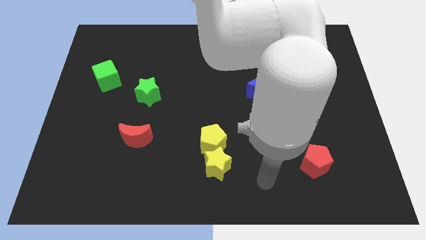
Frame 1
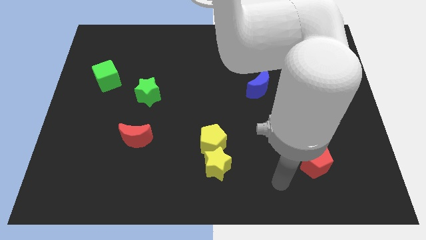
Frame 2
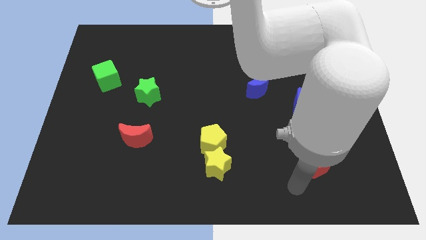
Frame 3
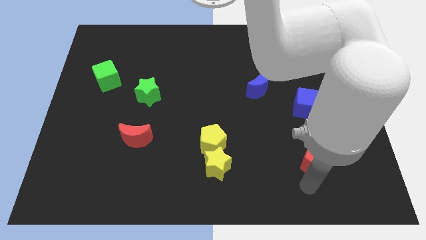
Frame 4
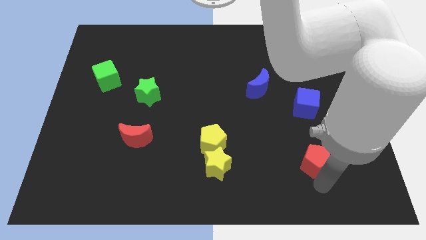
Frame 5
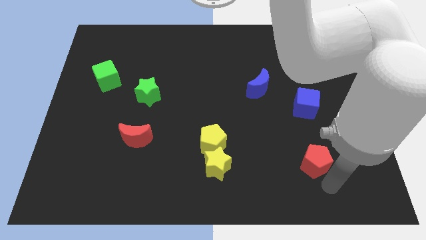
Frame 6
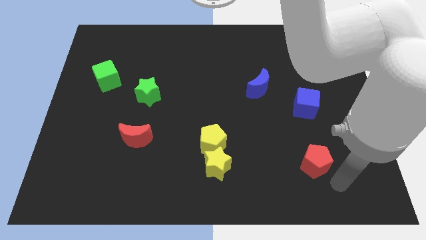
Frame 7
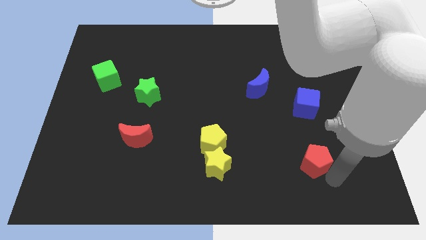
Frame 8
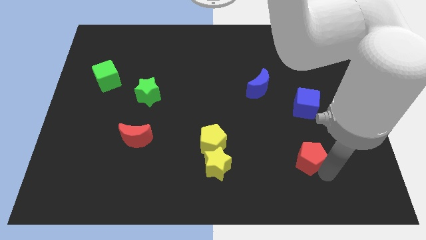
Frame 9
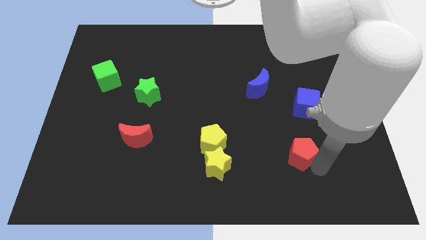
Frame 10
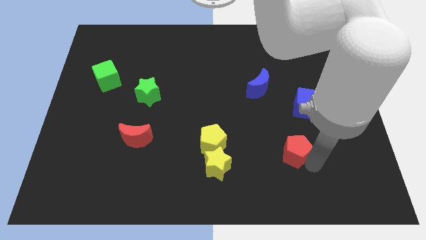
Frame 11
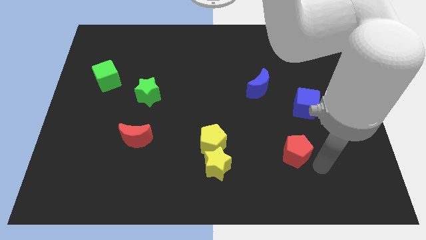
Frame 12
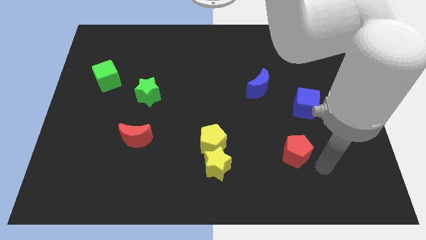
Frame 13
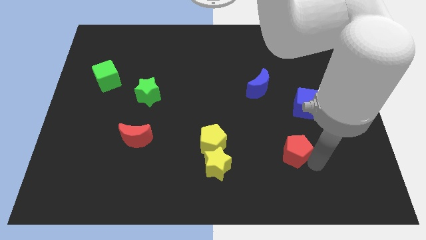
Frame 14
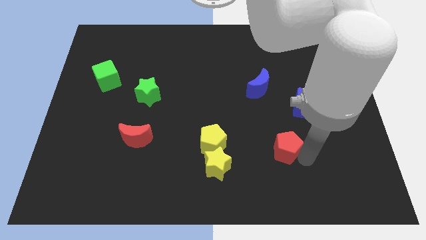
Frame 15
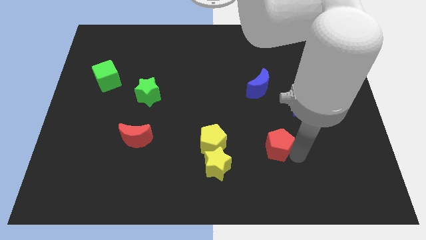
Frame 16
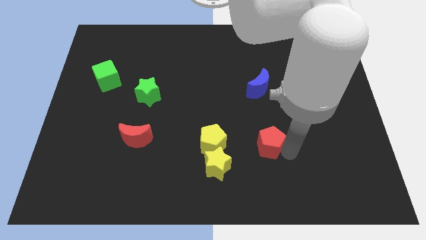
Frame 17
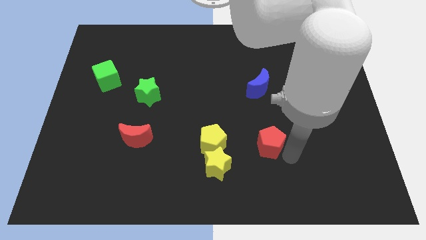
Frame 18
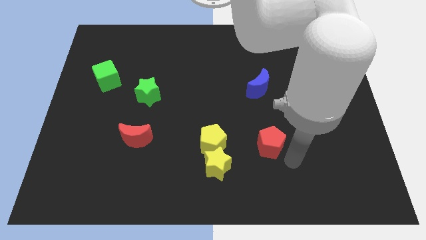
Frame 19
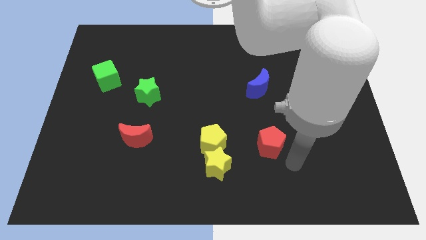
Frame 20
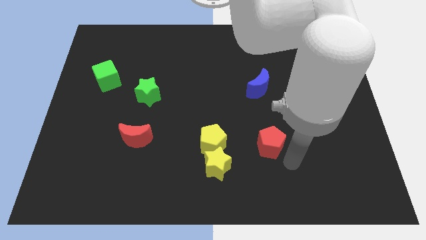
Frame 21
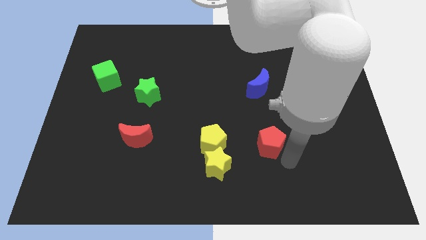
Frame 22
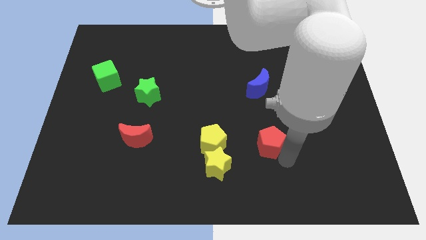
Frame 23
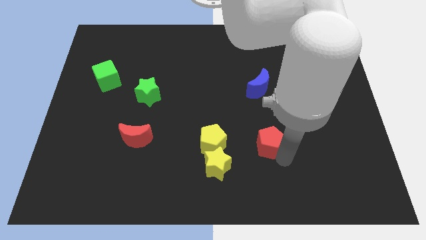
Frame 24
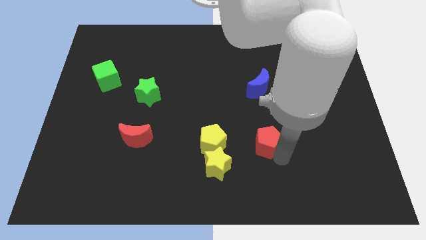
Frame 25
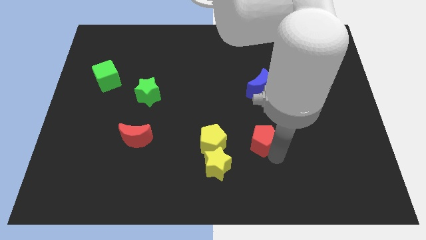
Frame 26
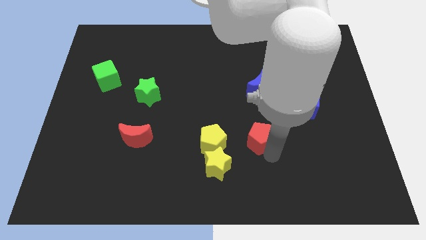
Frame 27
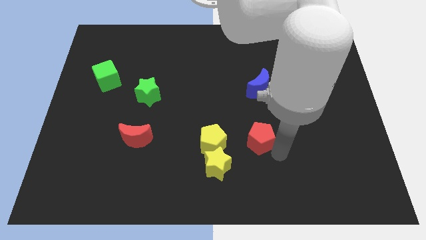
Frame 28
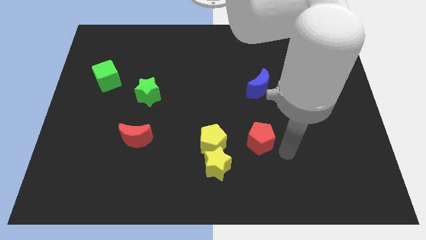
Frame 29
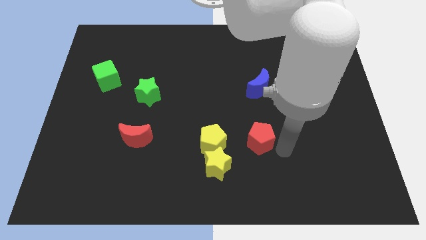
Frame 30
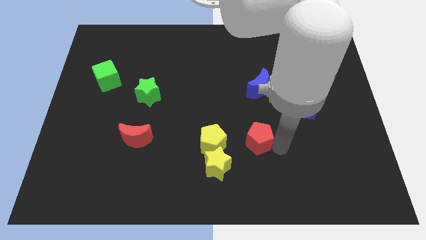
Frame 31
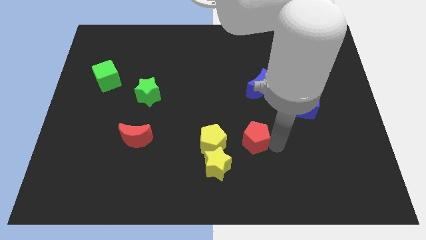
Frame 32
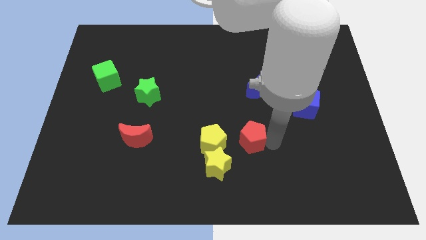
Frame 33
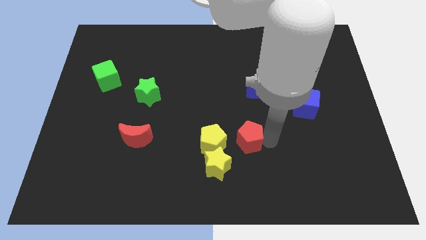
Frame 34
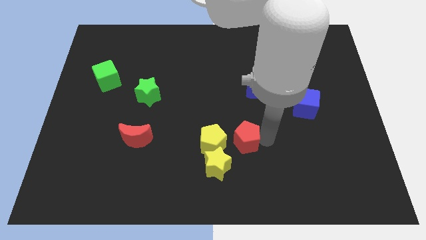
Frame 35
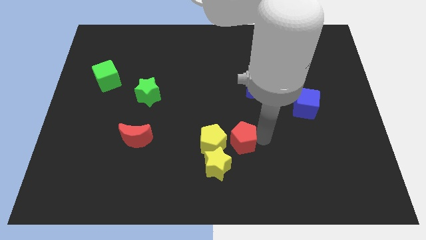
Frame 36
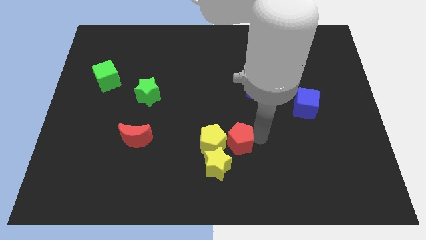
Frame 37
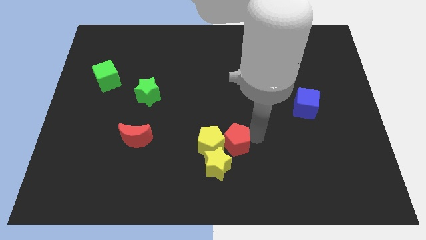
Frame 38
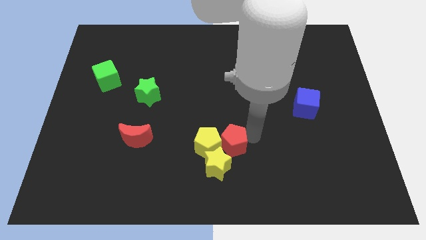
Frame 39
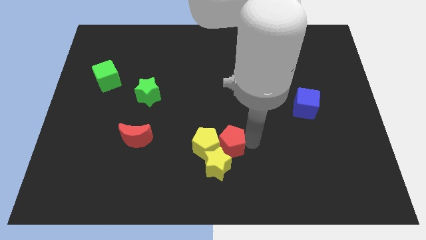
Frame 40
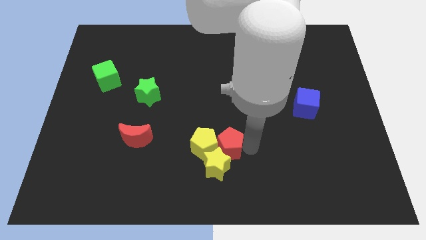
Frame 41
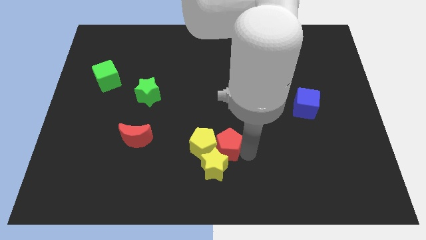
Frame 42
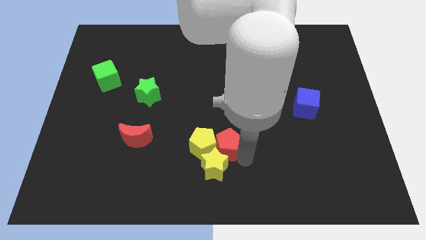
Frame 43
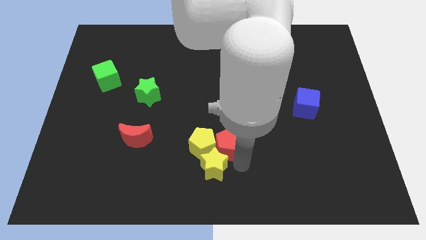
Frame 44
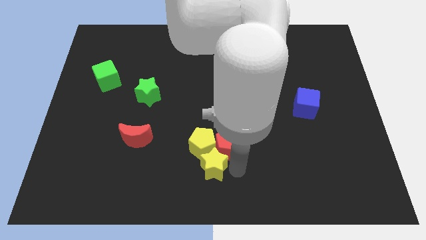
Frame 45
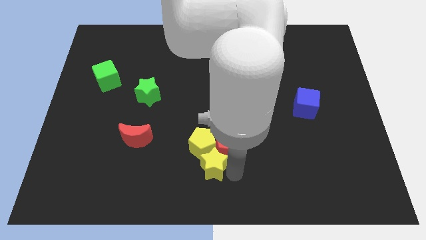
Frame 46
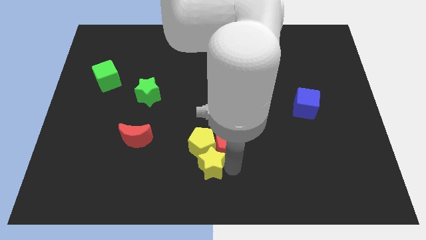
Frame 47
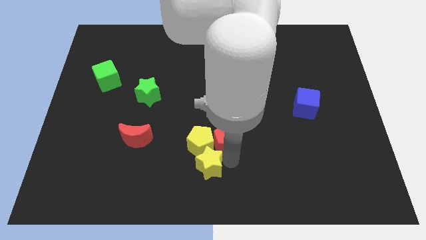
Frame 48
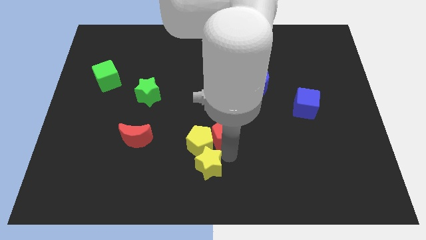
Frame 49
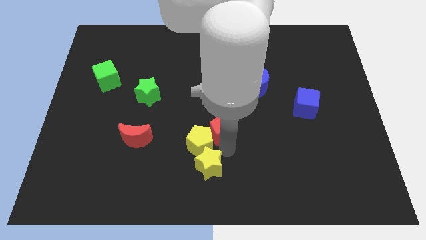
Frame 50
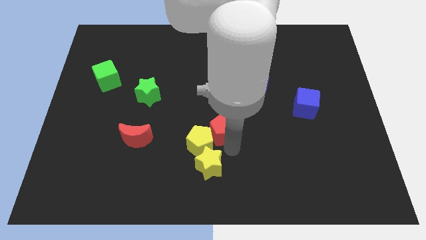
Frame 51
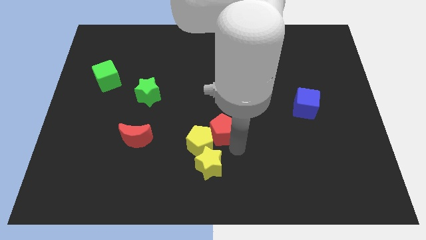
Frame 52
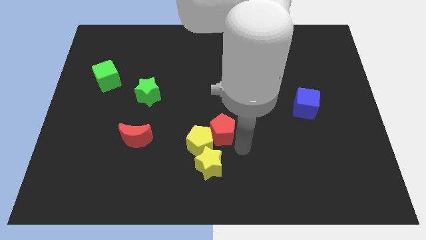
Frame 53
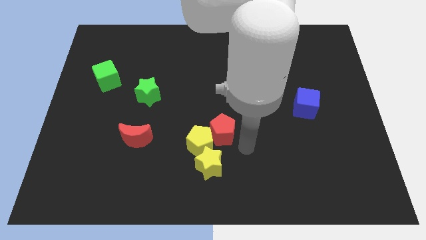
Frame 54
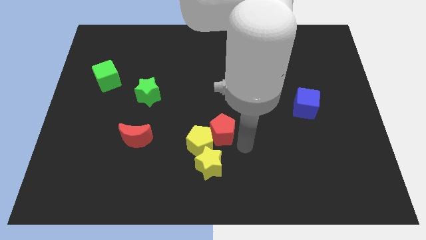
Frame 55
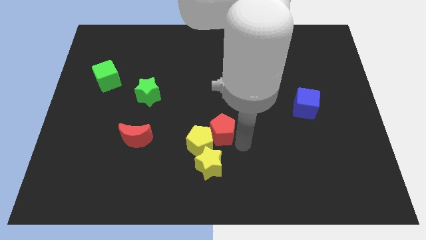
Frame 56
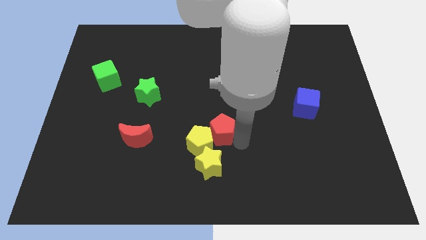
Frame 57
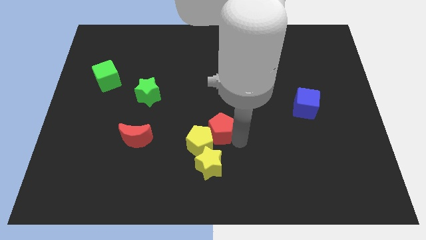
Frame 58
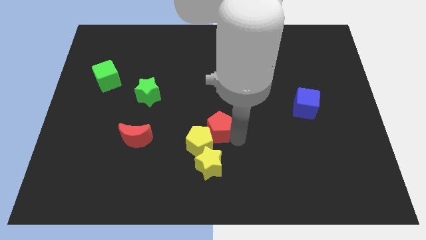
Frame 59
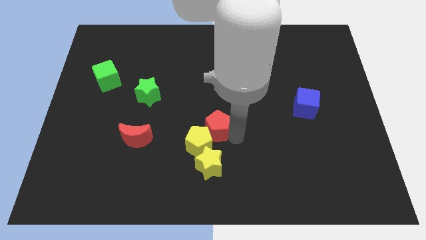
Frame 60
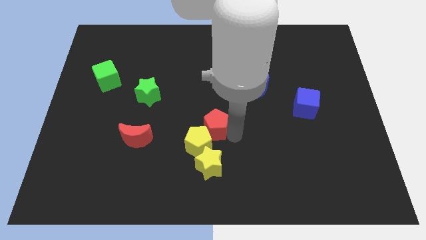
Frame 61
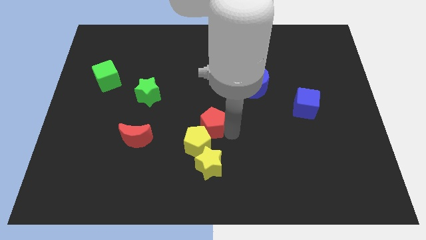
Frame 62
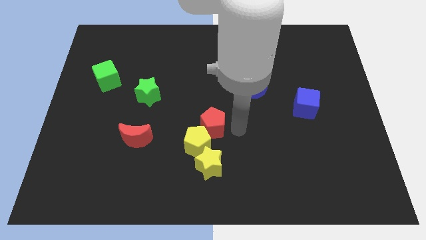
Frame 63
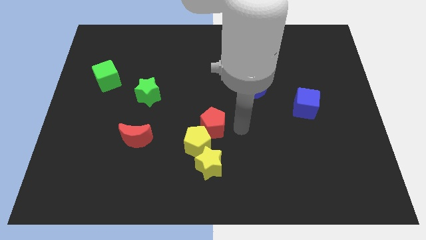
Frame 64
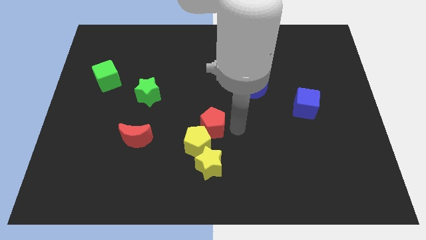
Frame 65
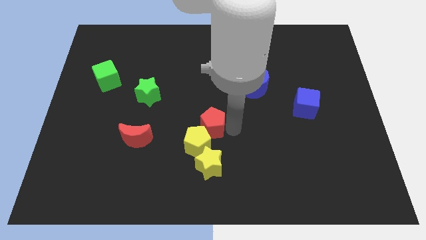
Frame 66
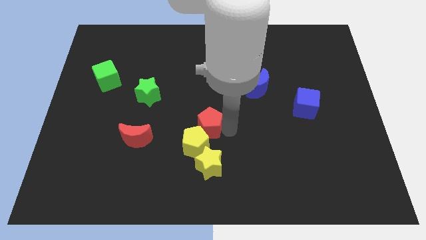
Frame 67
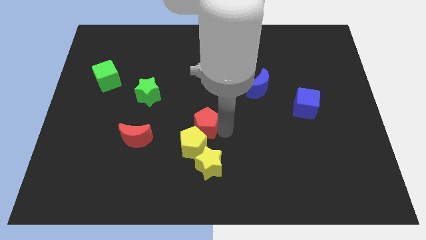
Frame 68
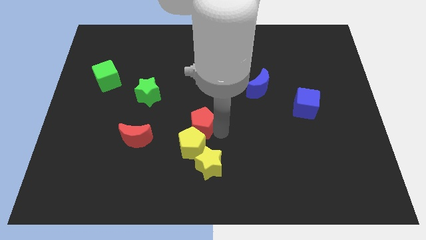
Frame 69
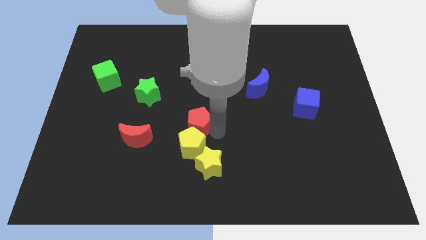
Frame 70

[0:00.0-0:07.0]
push the red pentagon to the top left side of the yellow pentagon

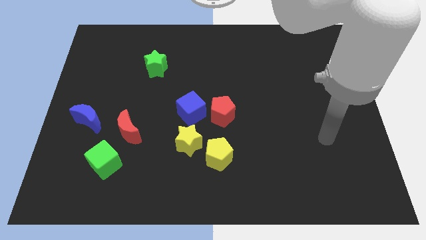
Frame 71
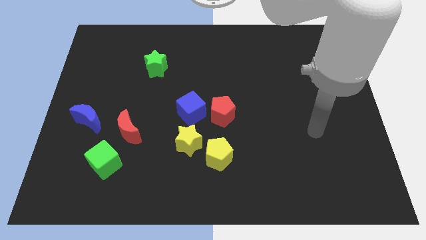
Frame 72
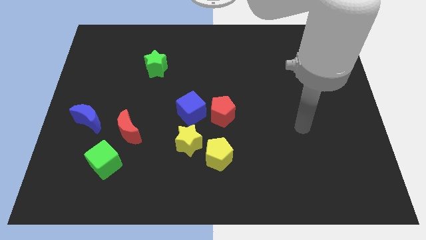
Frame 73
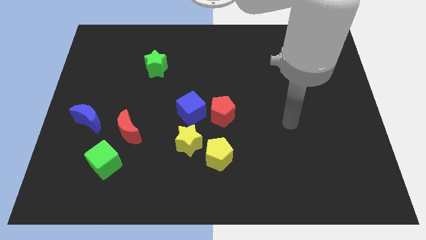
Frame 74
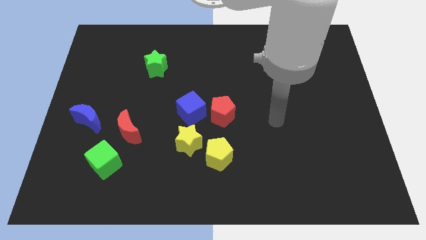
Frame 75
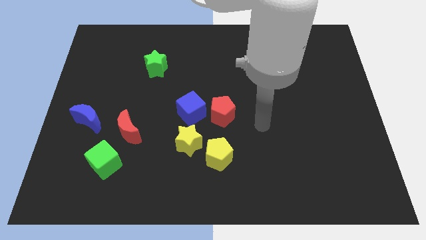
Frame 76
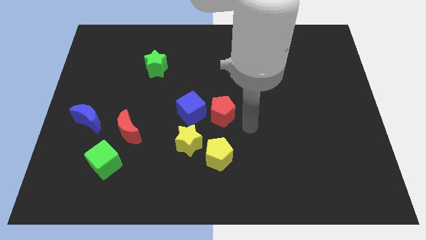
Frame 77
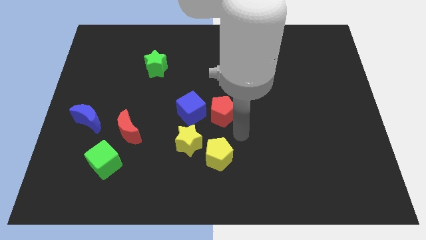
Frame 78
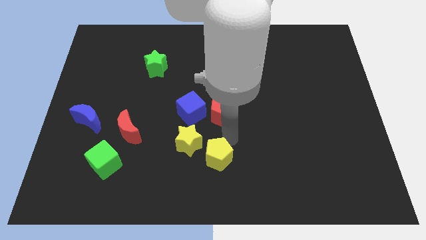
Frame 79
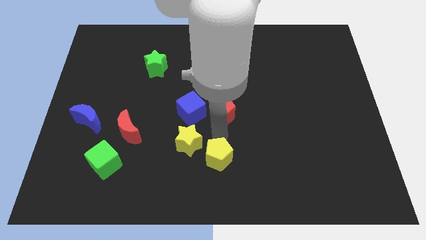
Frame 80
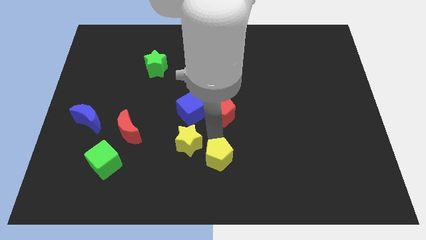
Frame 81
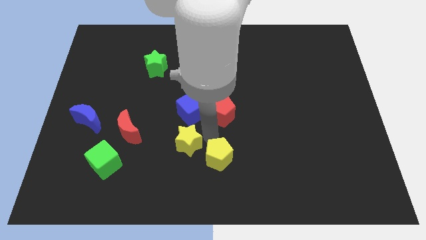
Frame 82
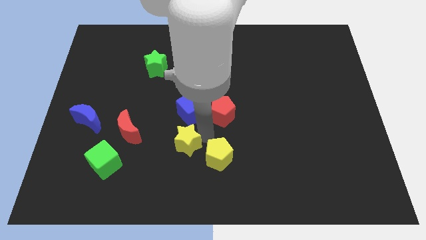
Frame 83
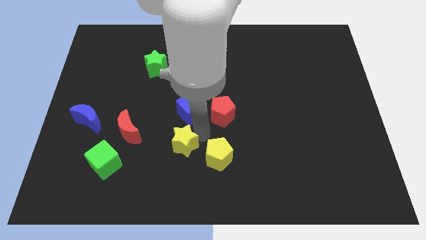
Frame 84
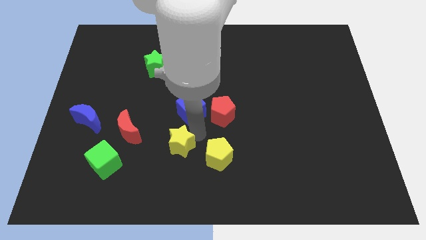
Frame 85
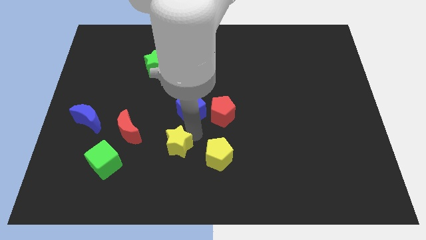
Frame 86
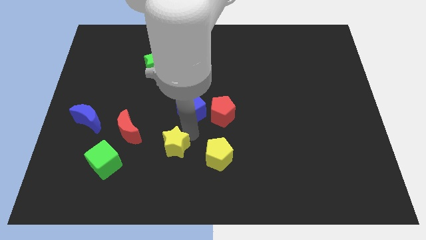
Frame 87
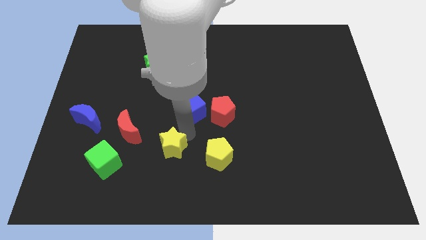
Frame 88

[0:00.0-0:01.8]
move the yellow star to the bottom right of the red moon
